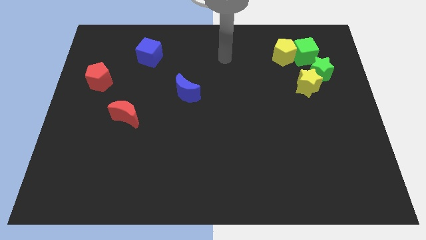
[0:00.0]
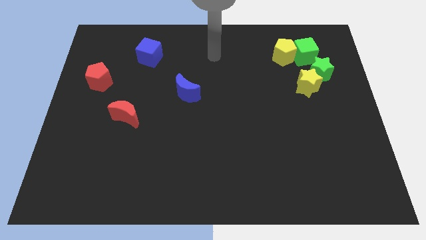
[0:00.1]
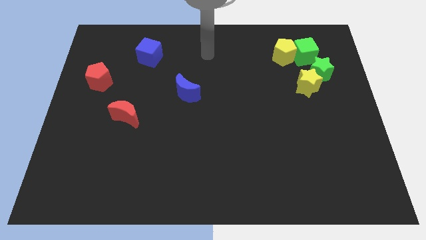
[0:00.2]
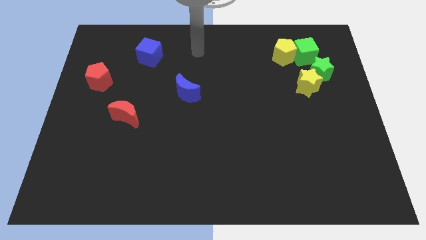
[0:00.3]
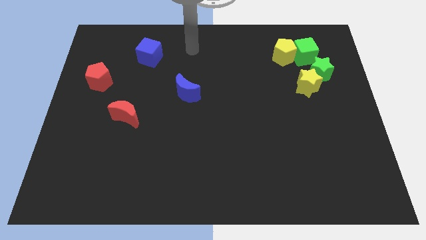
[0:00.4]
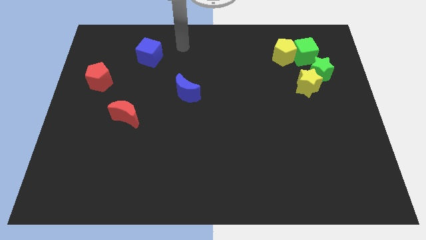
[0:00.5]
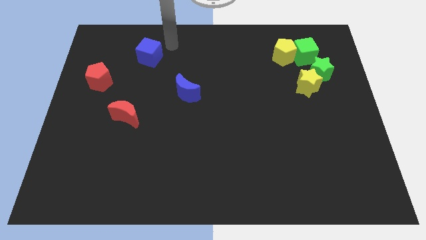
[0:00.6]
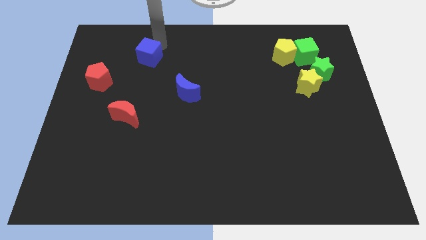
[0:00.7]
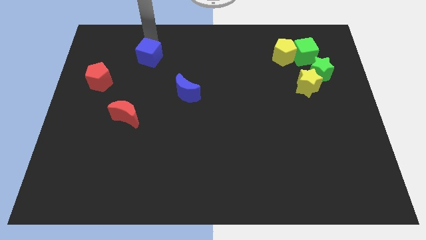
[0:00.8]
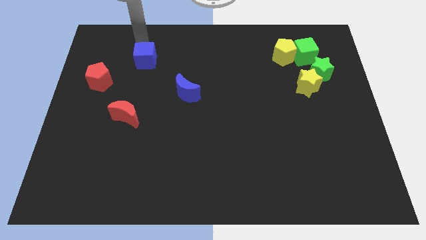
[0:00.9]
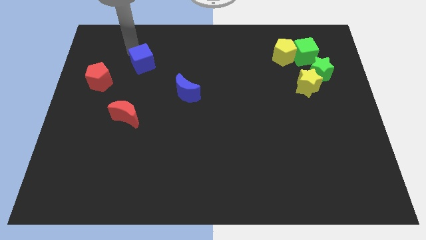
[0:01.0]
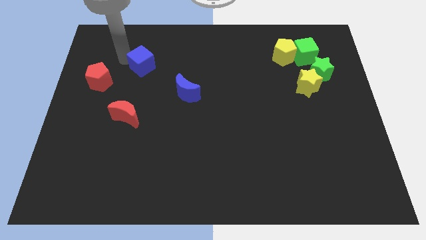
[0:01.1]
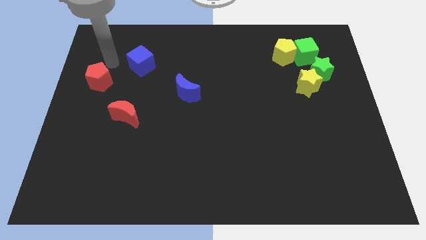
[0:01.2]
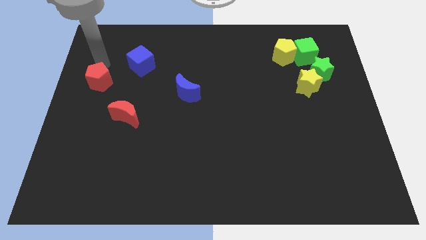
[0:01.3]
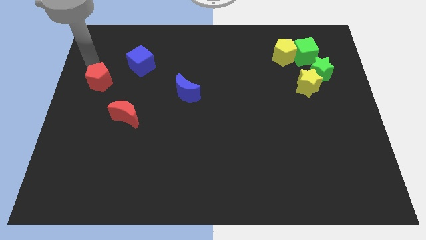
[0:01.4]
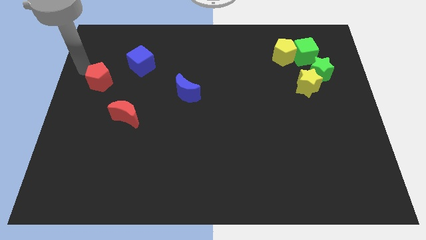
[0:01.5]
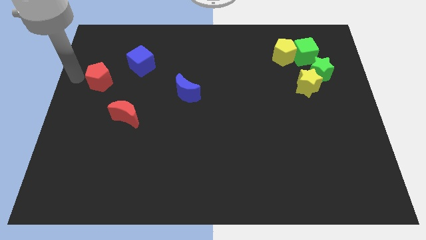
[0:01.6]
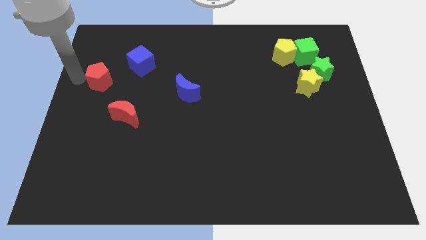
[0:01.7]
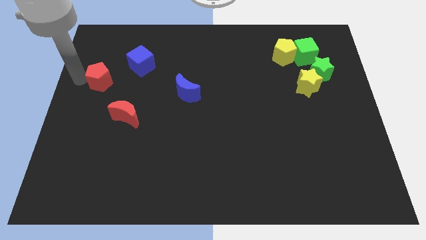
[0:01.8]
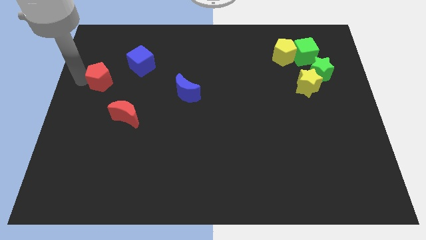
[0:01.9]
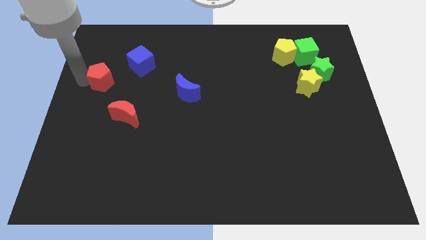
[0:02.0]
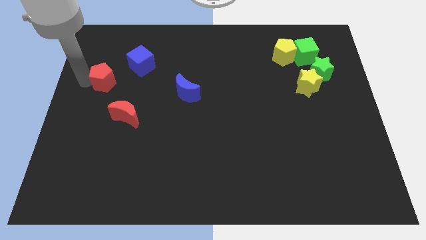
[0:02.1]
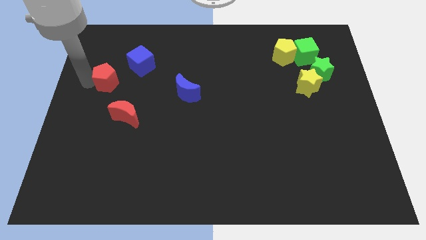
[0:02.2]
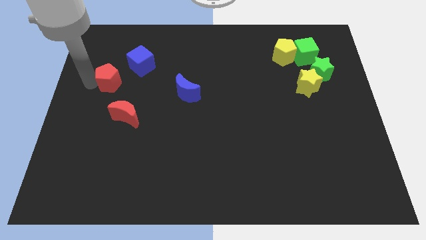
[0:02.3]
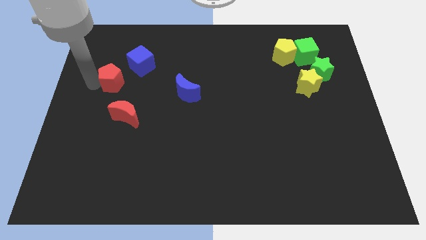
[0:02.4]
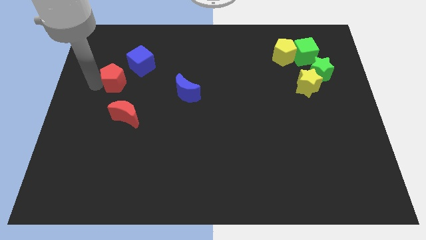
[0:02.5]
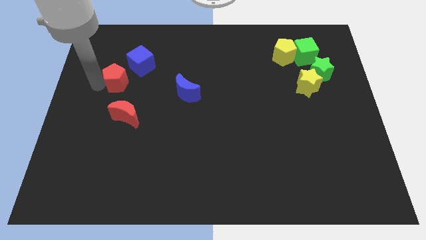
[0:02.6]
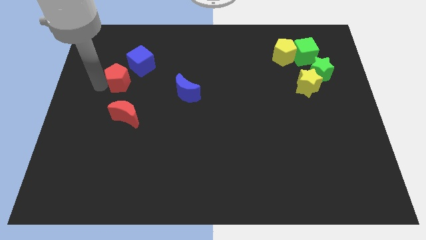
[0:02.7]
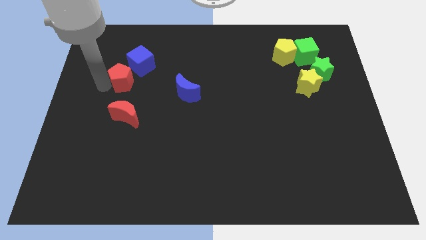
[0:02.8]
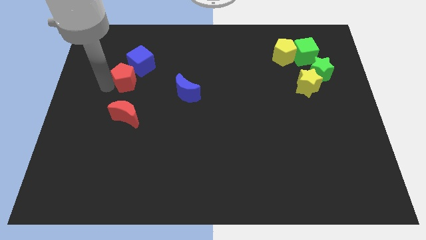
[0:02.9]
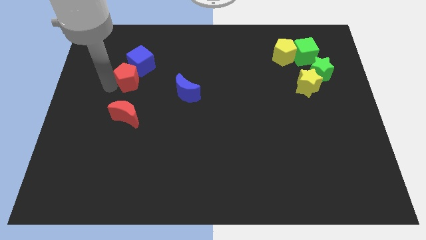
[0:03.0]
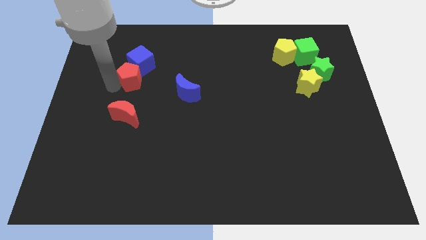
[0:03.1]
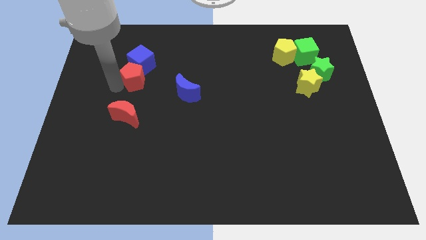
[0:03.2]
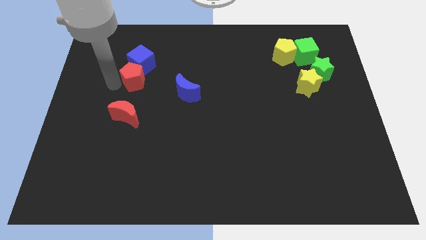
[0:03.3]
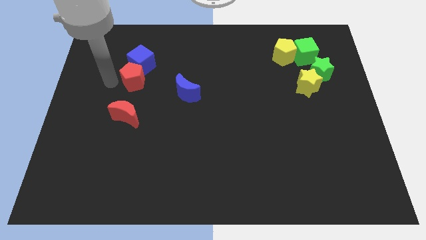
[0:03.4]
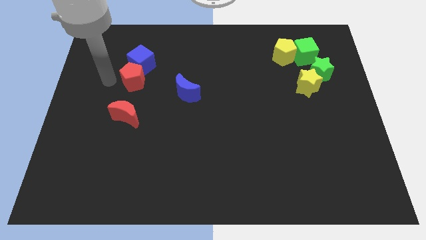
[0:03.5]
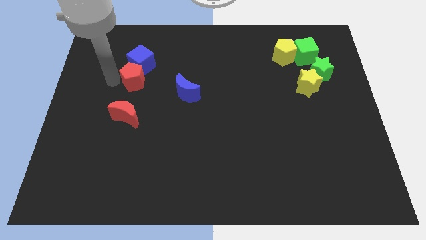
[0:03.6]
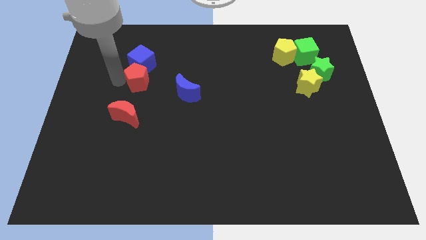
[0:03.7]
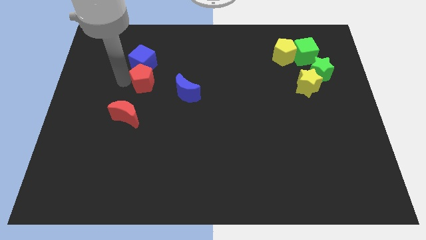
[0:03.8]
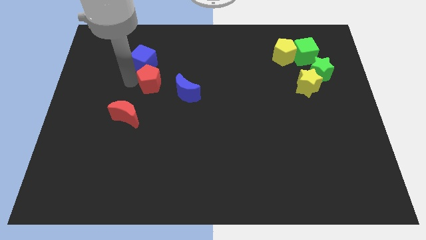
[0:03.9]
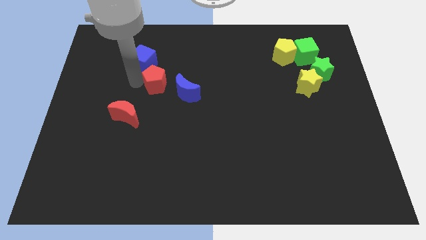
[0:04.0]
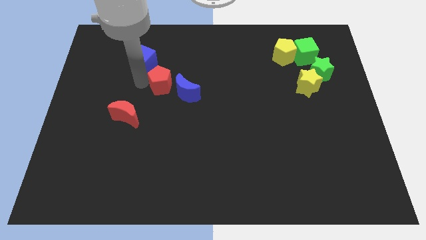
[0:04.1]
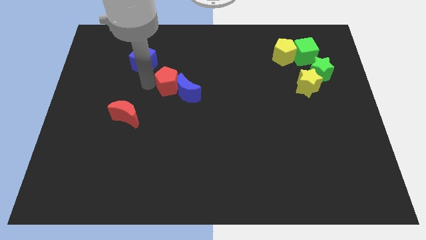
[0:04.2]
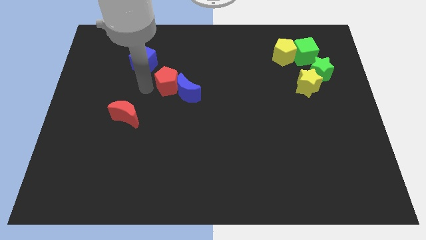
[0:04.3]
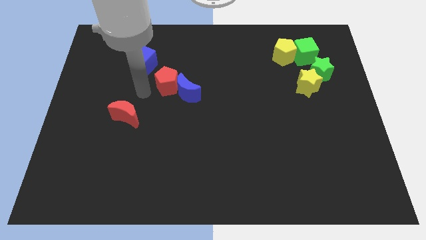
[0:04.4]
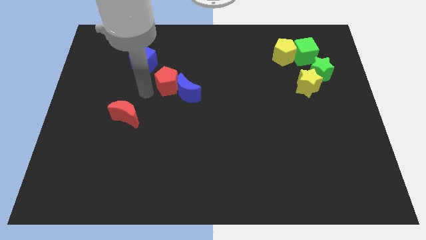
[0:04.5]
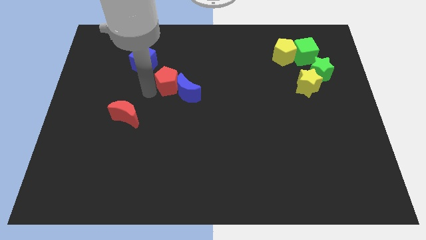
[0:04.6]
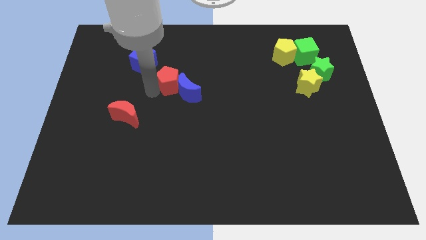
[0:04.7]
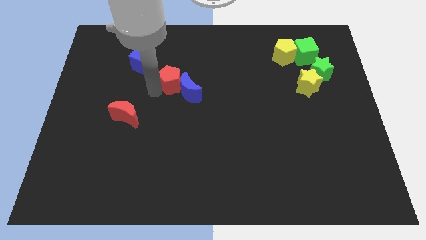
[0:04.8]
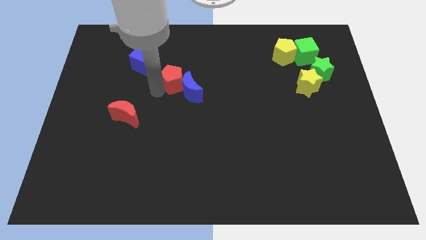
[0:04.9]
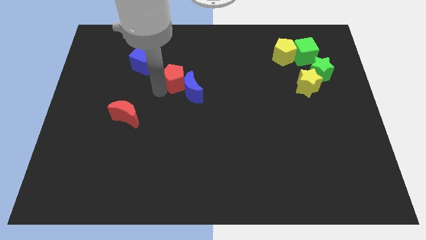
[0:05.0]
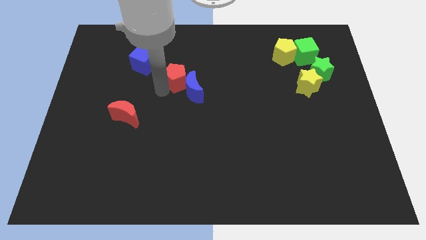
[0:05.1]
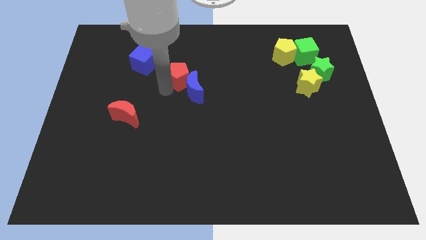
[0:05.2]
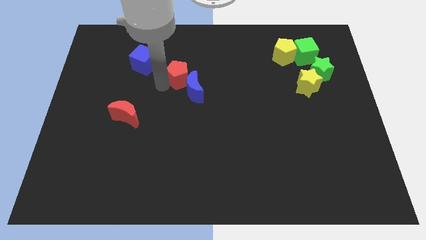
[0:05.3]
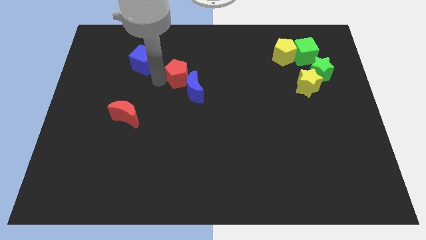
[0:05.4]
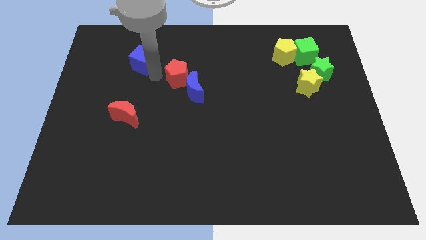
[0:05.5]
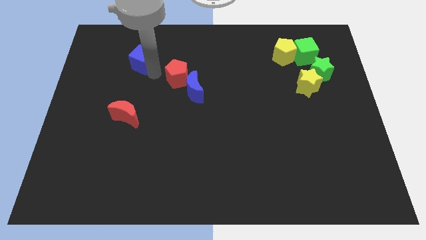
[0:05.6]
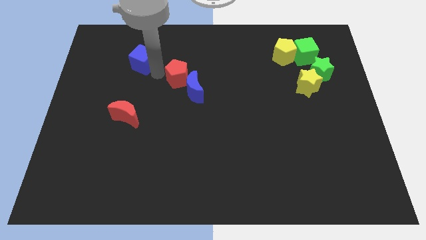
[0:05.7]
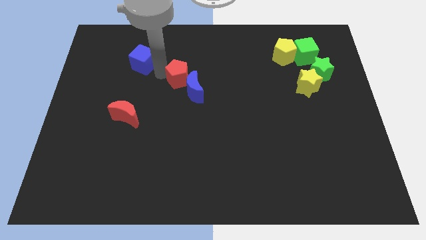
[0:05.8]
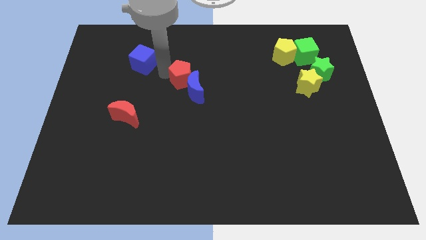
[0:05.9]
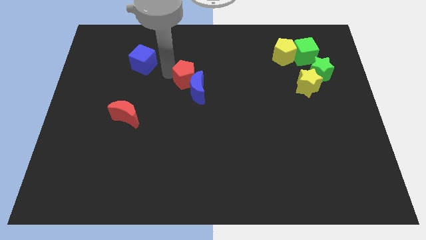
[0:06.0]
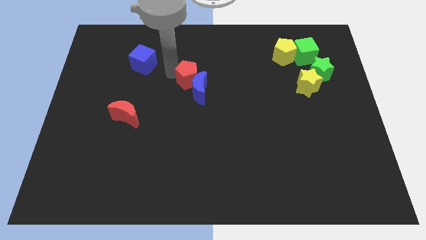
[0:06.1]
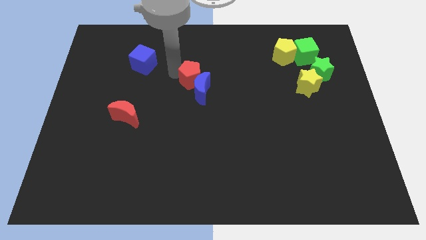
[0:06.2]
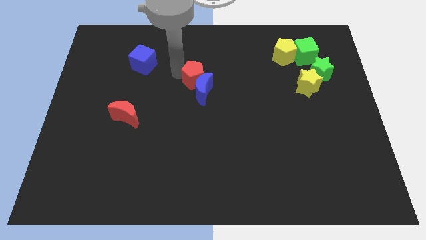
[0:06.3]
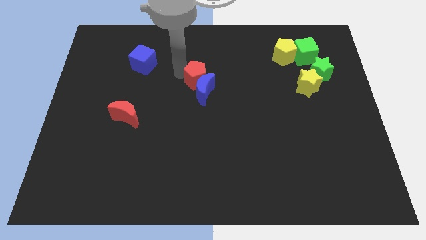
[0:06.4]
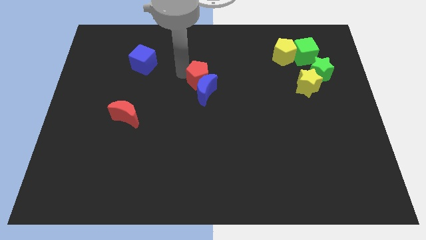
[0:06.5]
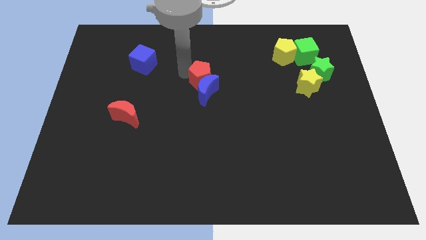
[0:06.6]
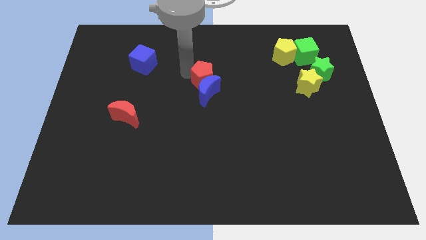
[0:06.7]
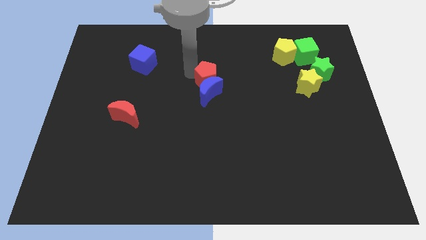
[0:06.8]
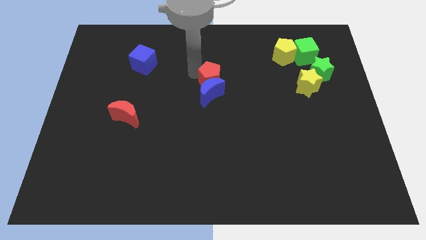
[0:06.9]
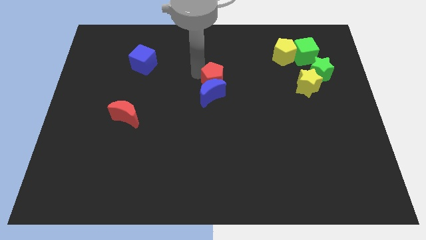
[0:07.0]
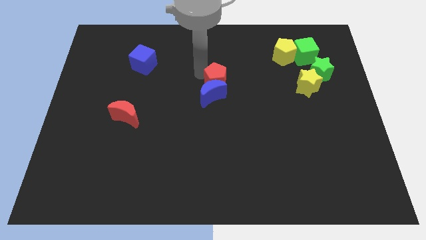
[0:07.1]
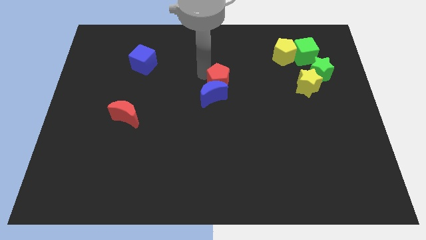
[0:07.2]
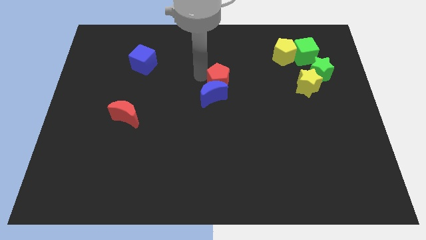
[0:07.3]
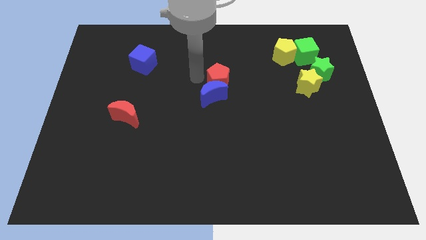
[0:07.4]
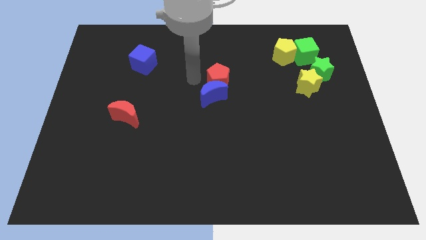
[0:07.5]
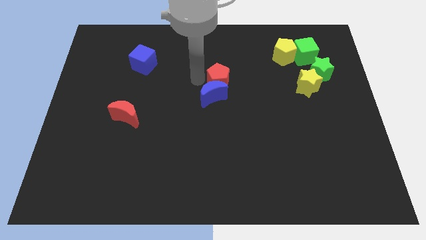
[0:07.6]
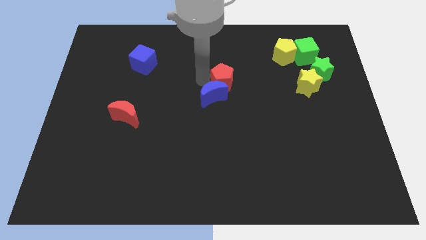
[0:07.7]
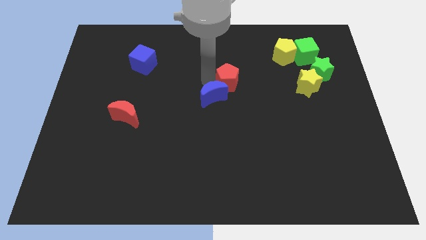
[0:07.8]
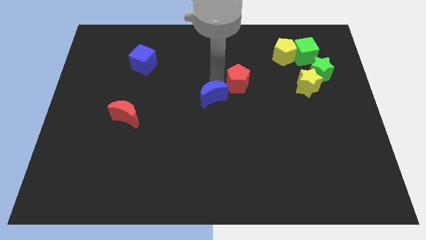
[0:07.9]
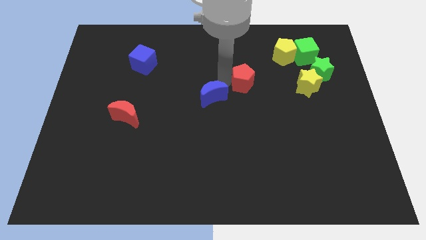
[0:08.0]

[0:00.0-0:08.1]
put the red pentagon just left of the yellow star

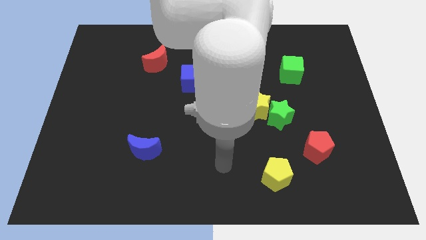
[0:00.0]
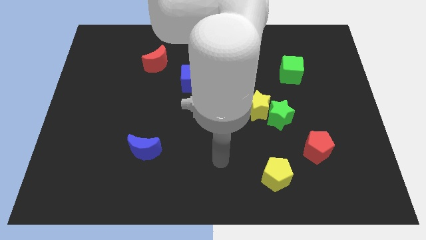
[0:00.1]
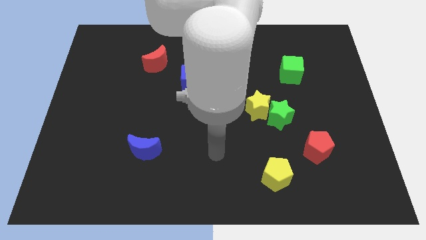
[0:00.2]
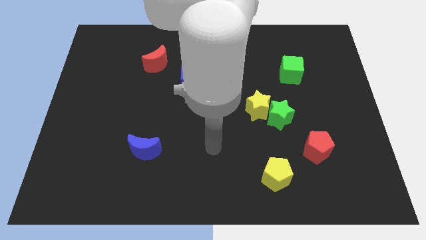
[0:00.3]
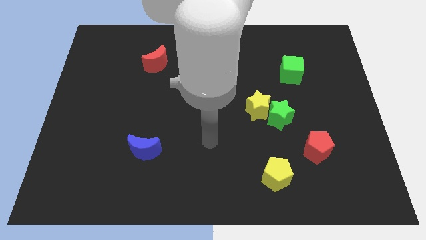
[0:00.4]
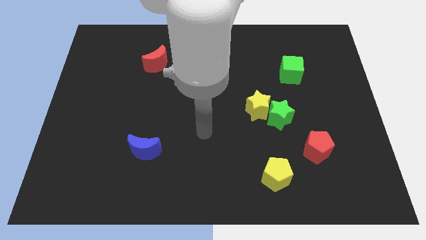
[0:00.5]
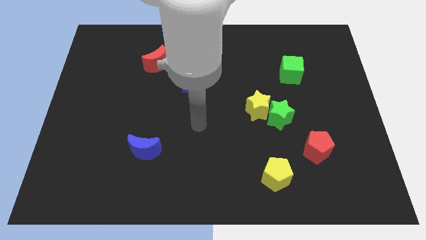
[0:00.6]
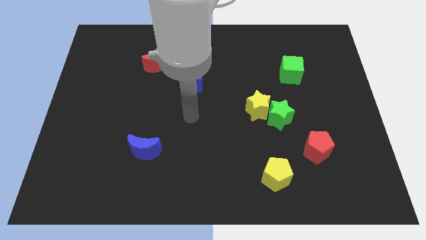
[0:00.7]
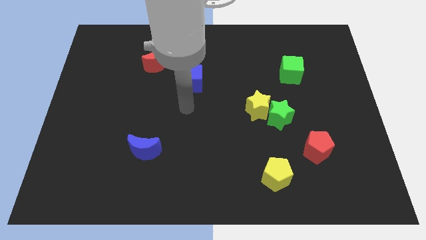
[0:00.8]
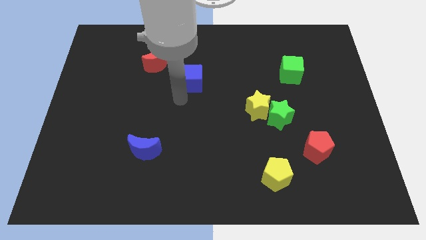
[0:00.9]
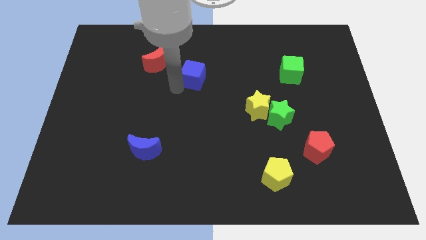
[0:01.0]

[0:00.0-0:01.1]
push the red moon to the left of the blue cube
